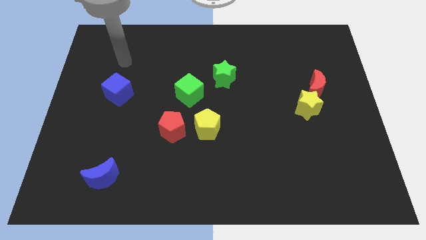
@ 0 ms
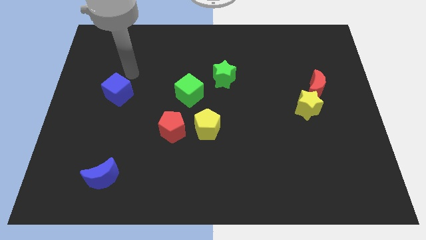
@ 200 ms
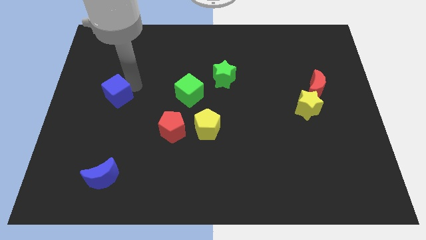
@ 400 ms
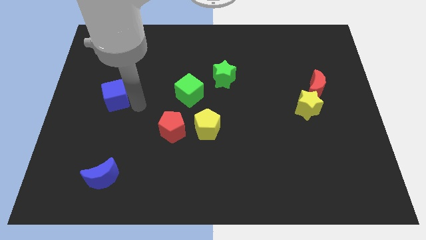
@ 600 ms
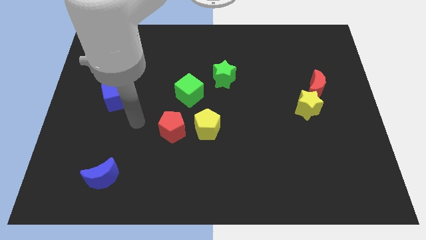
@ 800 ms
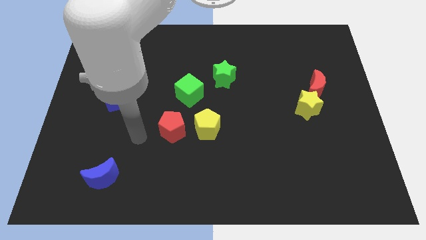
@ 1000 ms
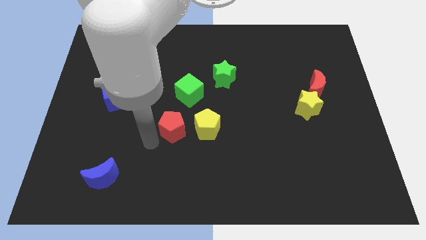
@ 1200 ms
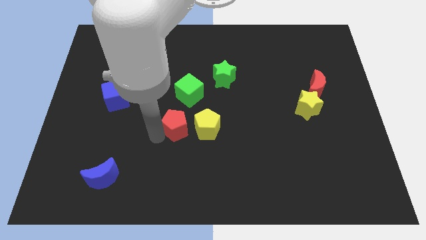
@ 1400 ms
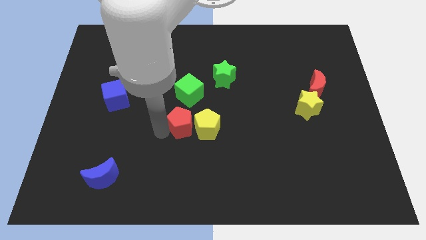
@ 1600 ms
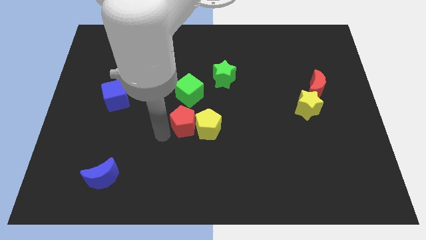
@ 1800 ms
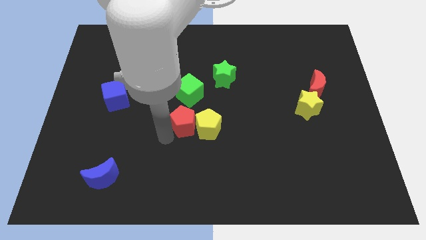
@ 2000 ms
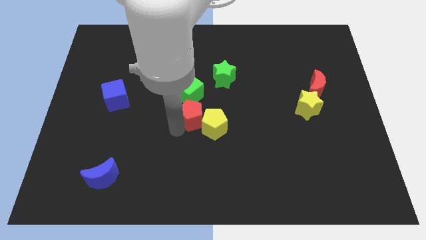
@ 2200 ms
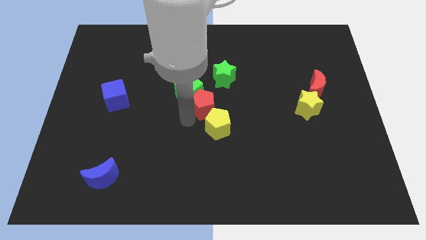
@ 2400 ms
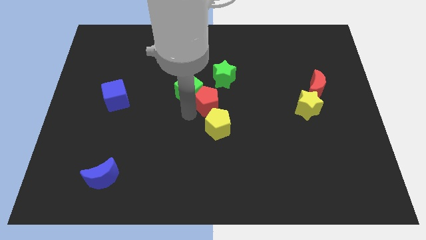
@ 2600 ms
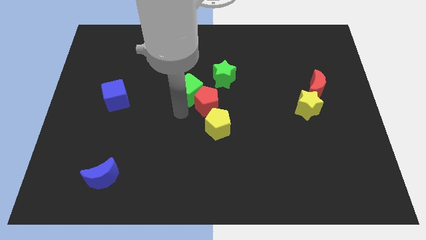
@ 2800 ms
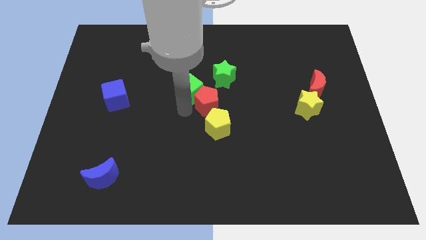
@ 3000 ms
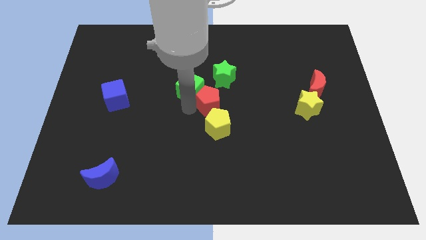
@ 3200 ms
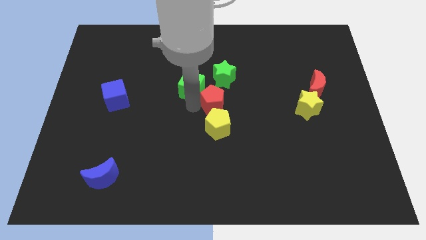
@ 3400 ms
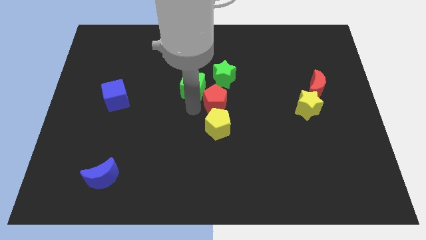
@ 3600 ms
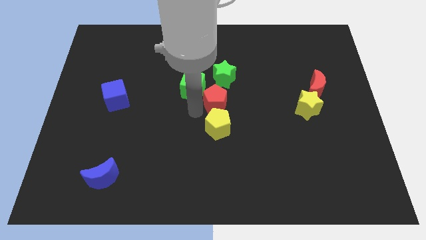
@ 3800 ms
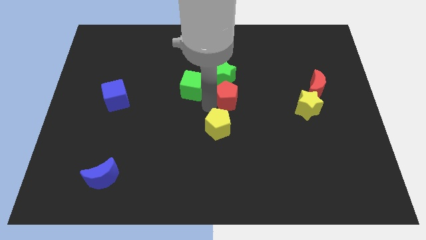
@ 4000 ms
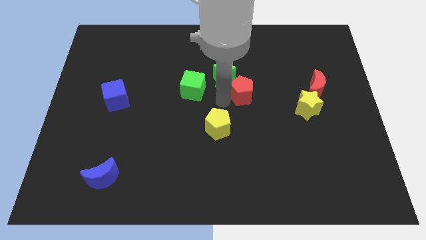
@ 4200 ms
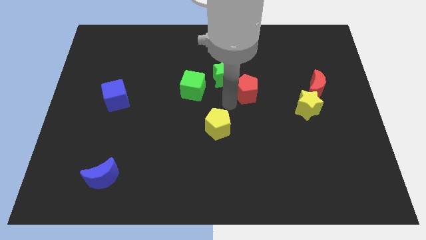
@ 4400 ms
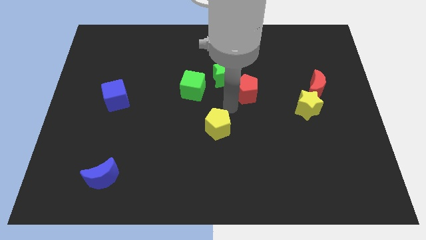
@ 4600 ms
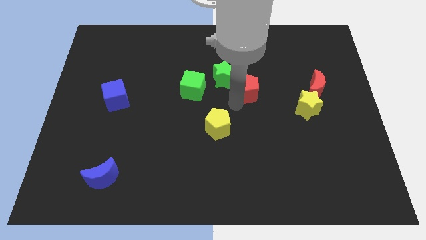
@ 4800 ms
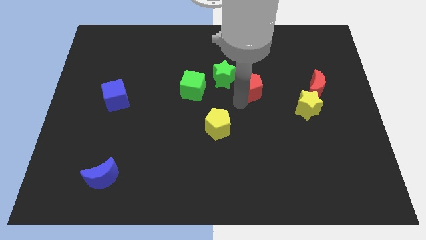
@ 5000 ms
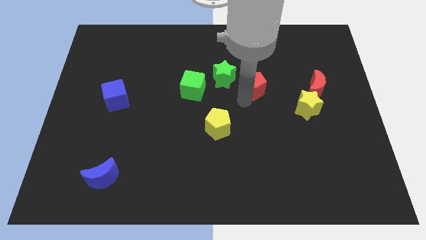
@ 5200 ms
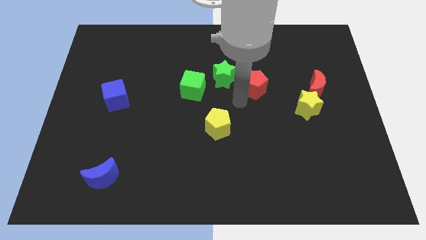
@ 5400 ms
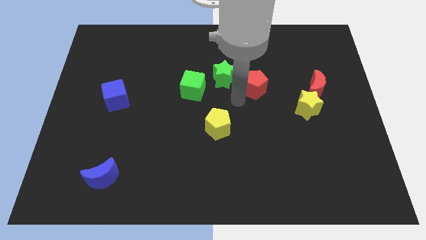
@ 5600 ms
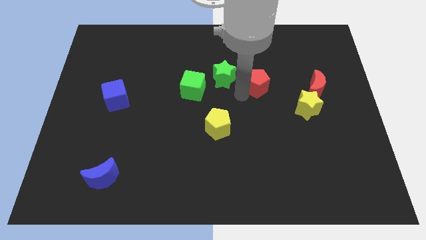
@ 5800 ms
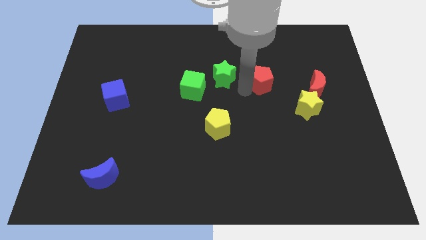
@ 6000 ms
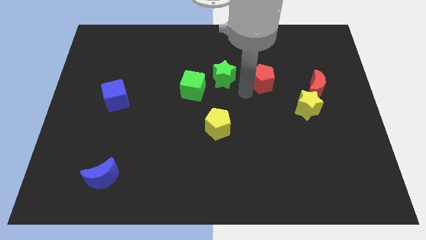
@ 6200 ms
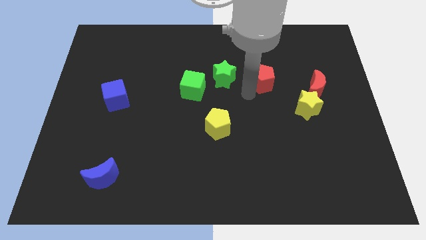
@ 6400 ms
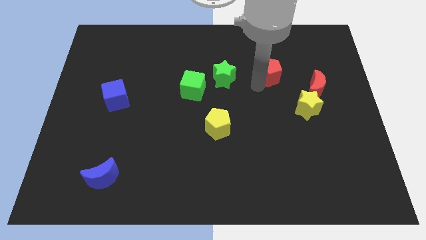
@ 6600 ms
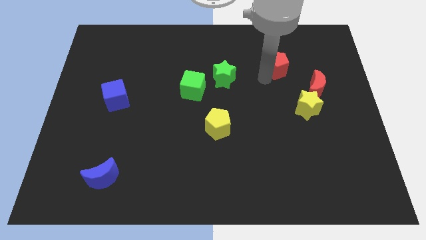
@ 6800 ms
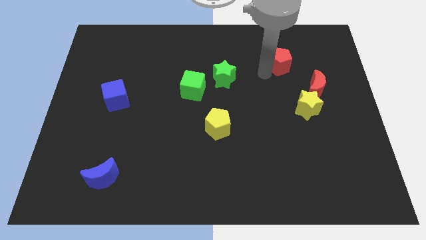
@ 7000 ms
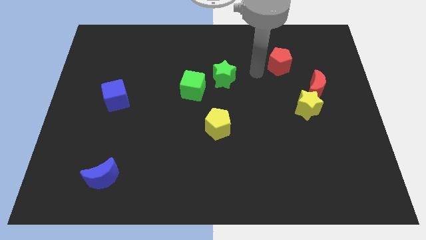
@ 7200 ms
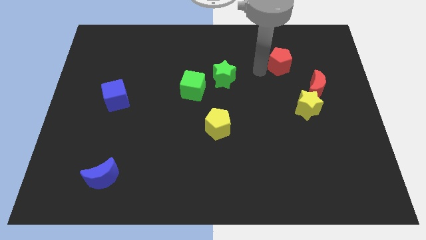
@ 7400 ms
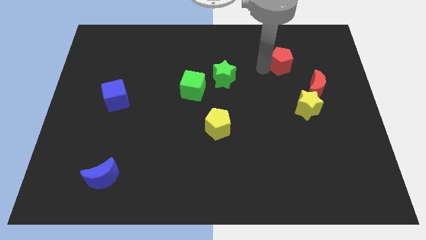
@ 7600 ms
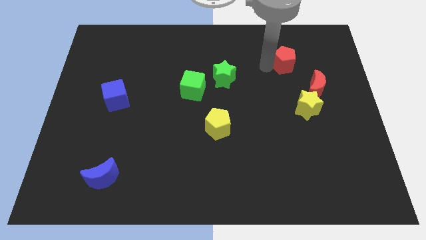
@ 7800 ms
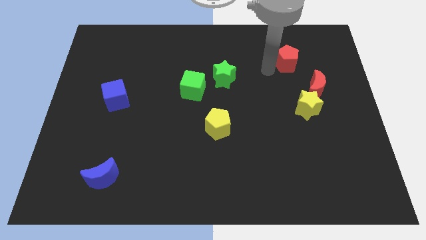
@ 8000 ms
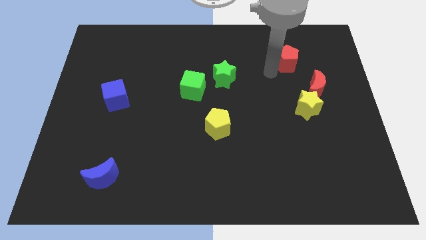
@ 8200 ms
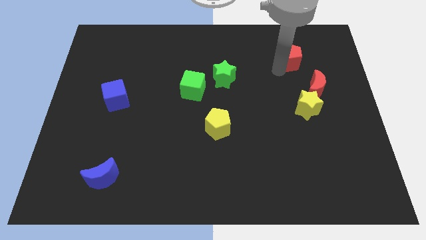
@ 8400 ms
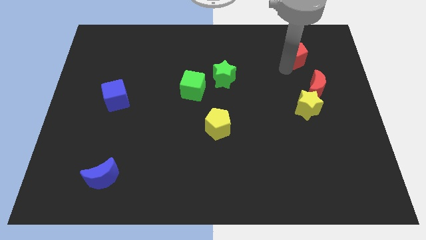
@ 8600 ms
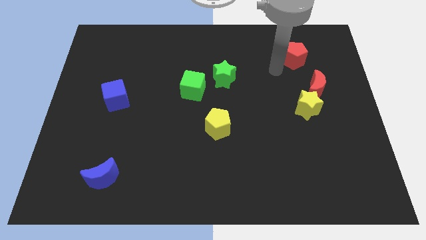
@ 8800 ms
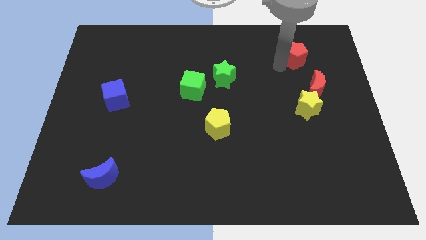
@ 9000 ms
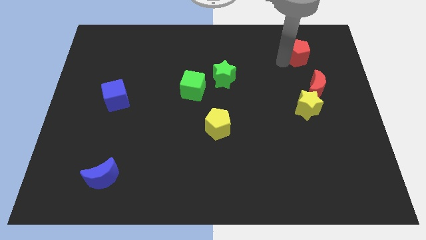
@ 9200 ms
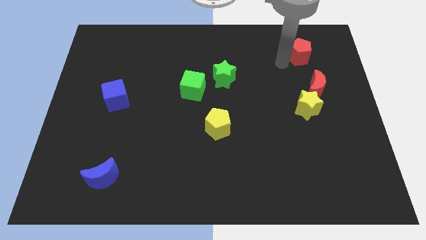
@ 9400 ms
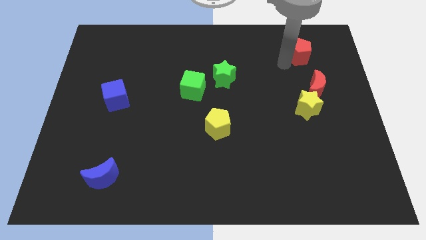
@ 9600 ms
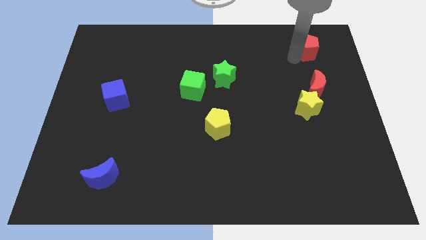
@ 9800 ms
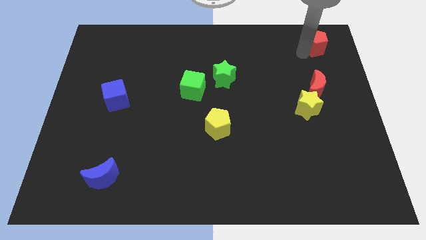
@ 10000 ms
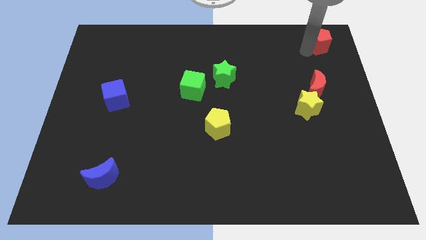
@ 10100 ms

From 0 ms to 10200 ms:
push the red pentagon to the top right of the board
